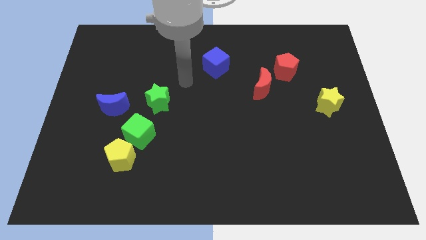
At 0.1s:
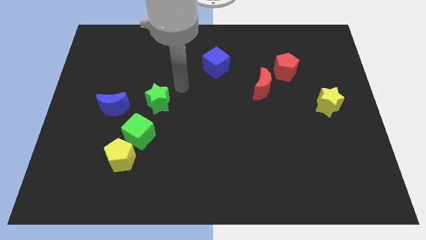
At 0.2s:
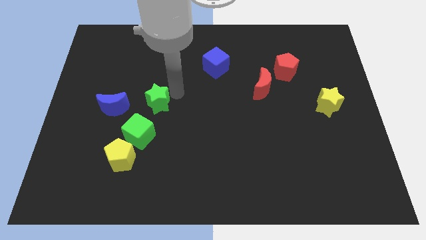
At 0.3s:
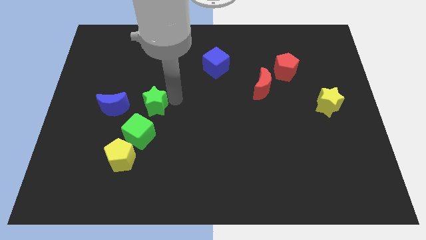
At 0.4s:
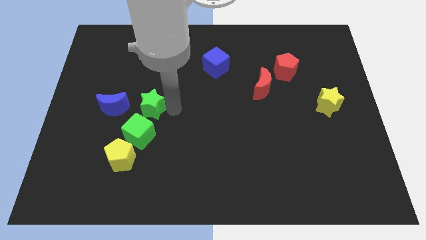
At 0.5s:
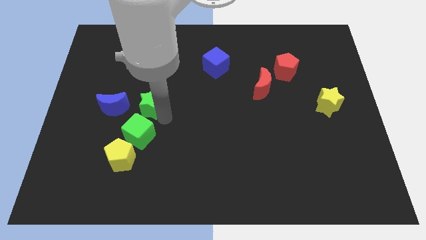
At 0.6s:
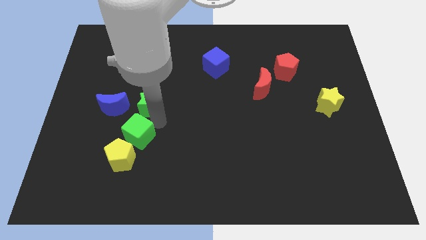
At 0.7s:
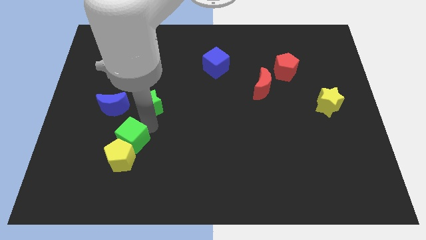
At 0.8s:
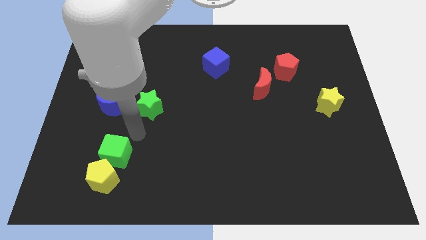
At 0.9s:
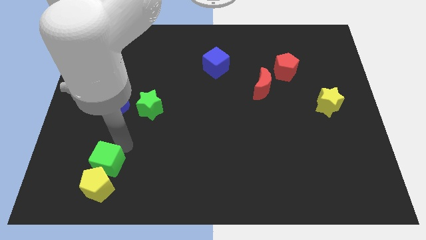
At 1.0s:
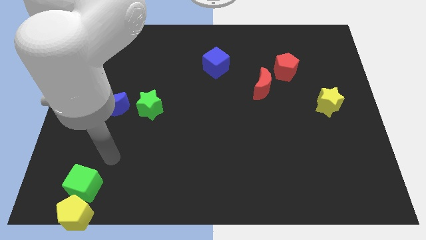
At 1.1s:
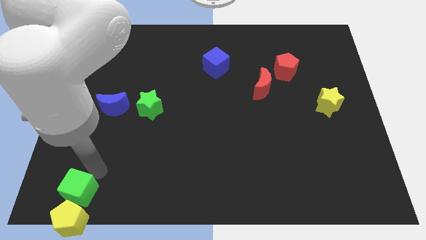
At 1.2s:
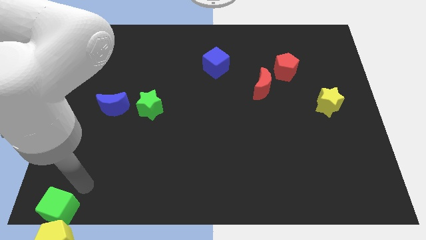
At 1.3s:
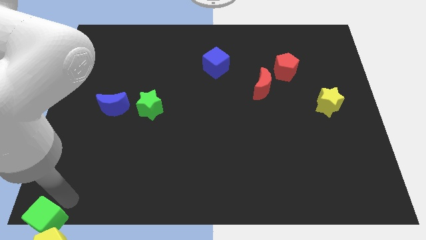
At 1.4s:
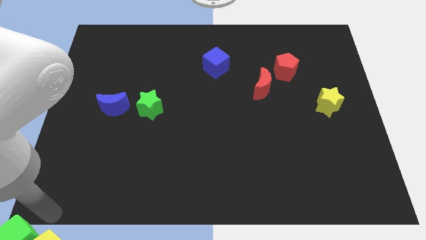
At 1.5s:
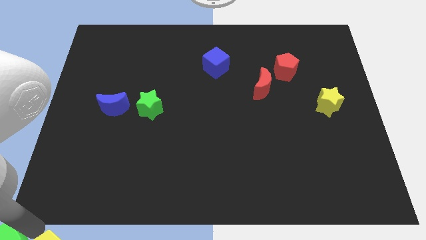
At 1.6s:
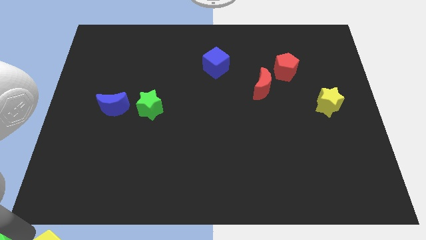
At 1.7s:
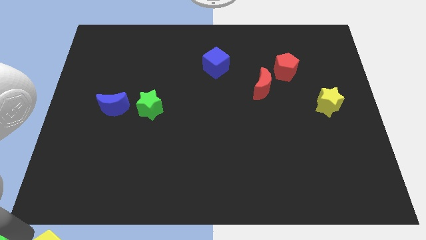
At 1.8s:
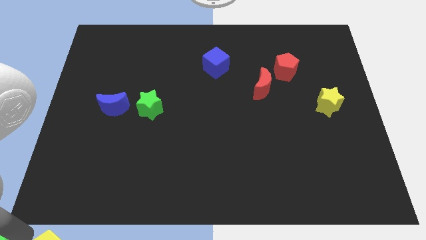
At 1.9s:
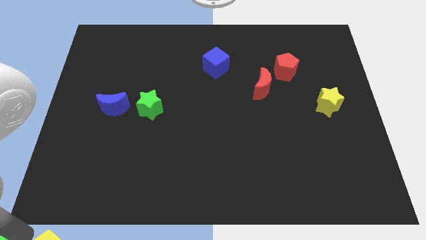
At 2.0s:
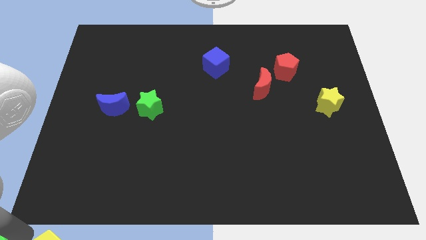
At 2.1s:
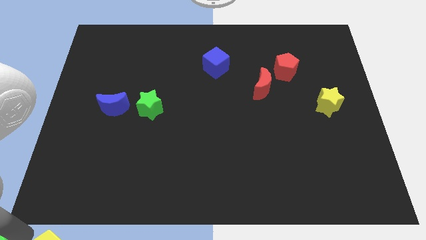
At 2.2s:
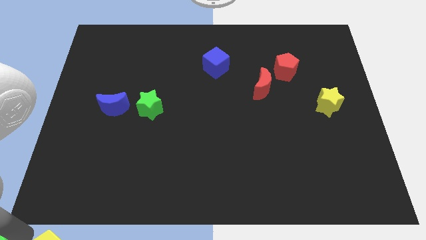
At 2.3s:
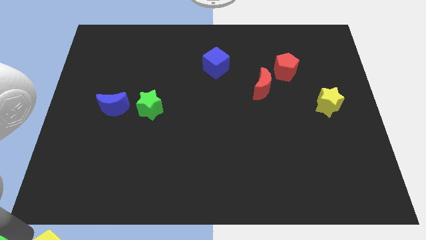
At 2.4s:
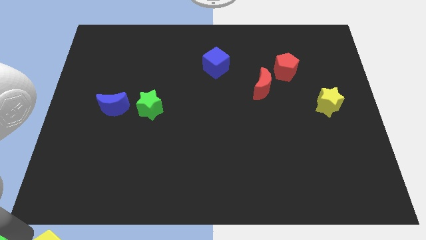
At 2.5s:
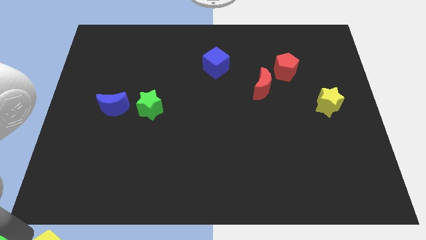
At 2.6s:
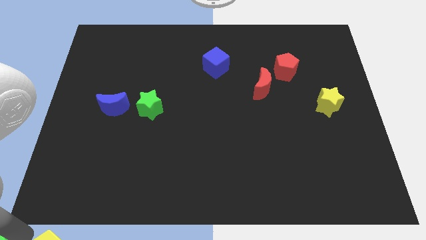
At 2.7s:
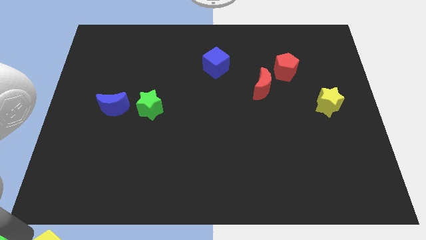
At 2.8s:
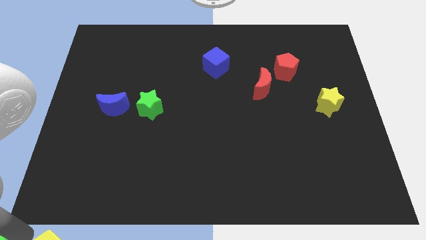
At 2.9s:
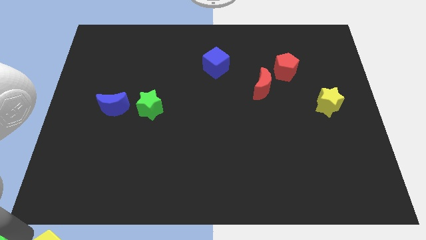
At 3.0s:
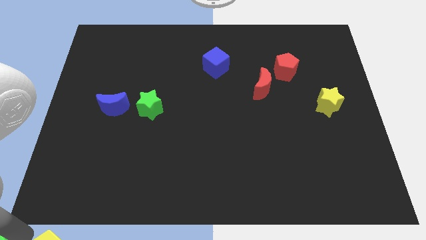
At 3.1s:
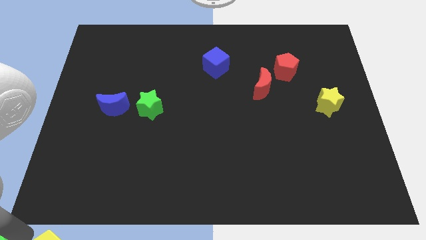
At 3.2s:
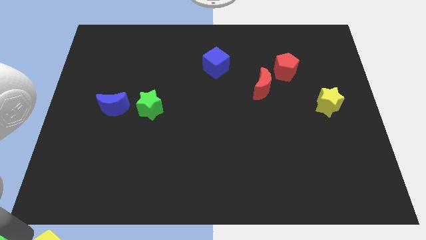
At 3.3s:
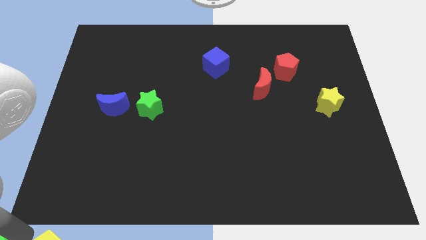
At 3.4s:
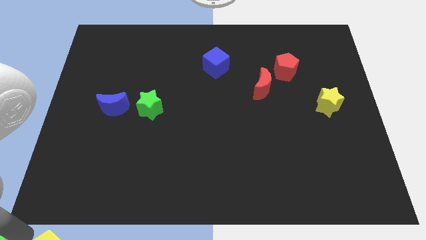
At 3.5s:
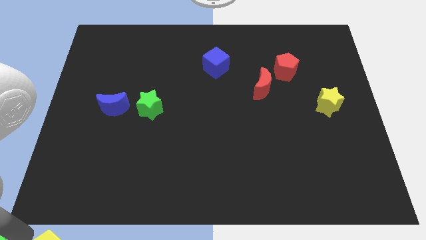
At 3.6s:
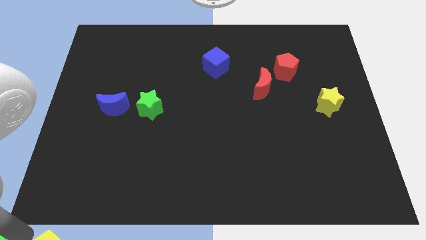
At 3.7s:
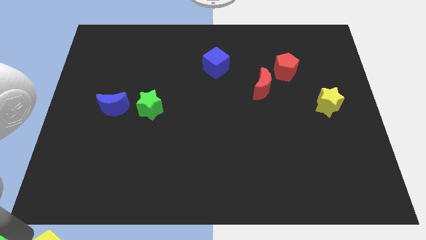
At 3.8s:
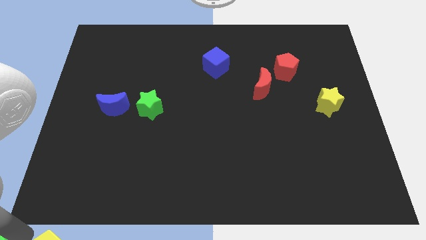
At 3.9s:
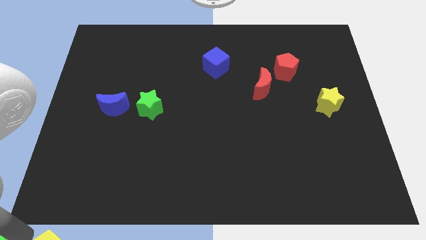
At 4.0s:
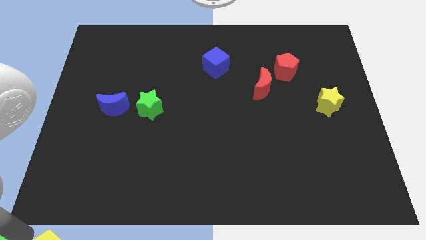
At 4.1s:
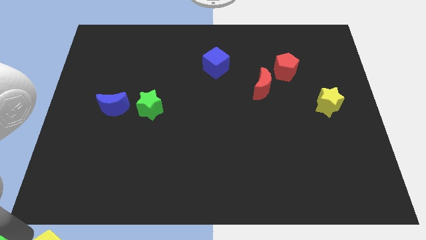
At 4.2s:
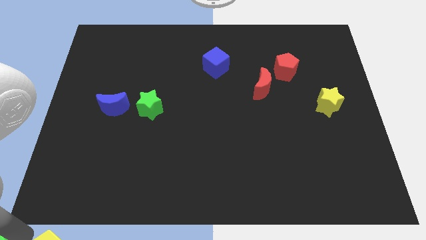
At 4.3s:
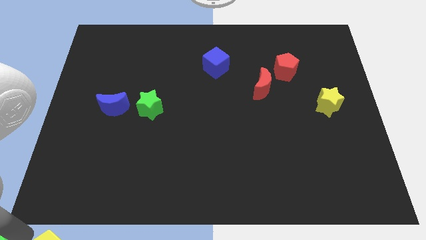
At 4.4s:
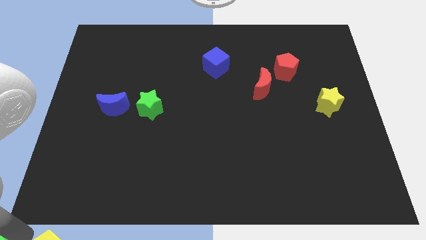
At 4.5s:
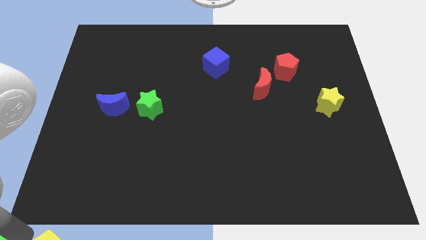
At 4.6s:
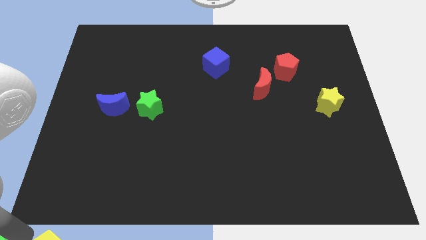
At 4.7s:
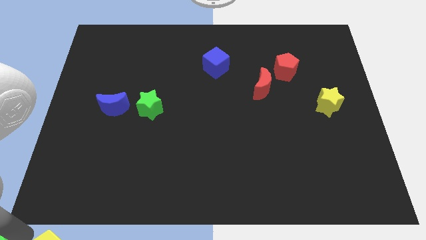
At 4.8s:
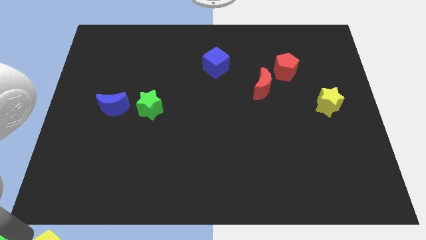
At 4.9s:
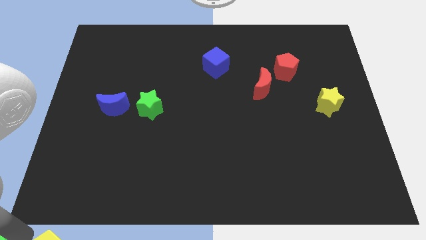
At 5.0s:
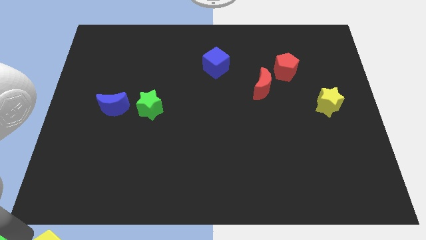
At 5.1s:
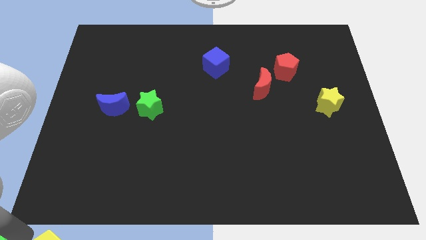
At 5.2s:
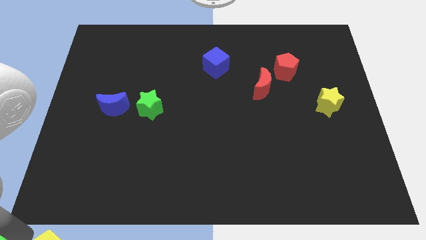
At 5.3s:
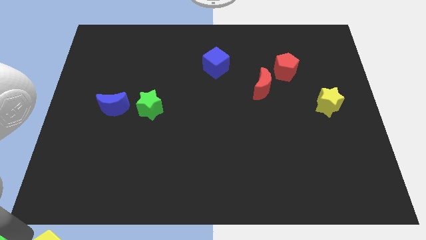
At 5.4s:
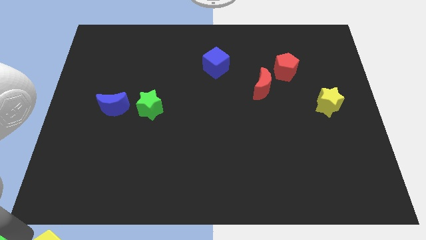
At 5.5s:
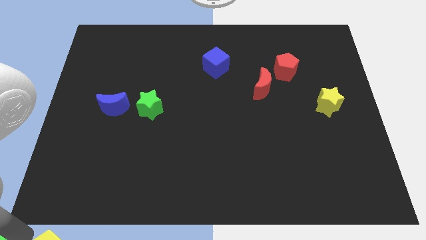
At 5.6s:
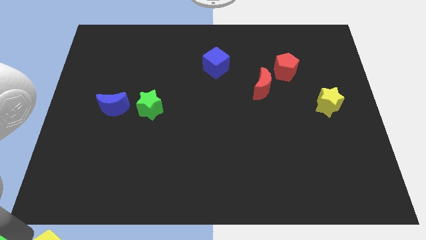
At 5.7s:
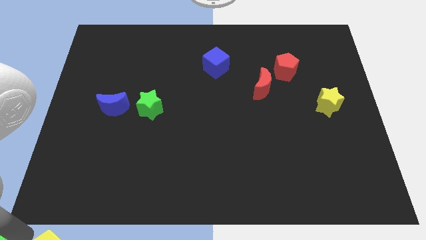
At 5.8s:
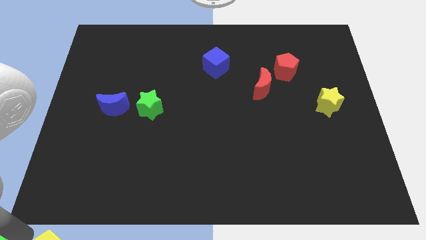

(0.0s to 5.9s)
pull the yellow pentagon apart from the green cube

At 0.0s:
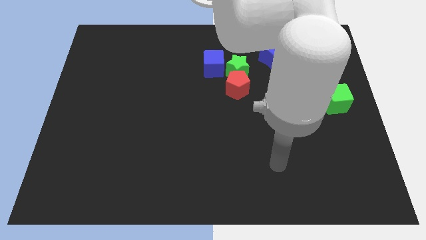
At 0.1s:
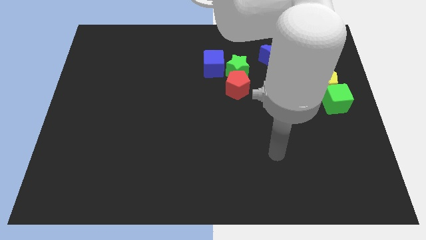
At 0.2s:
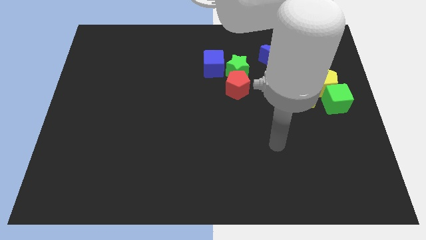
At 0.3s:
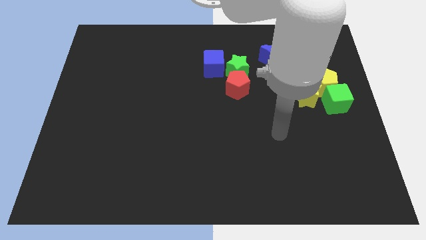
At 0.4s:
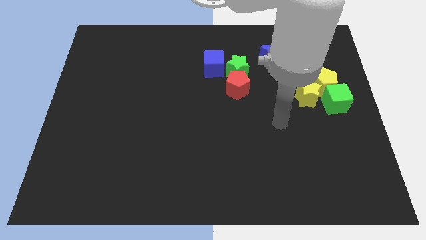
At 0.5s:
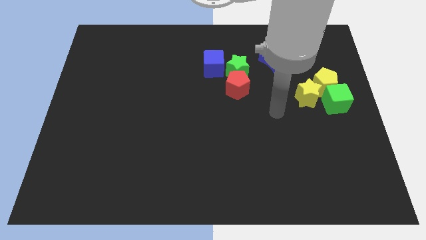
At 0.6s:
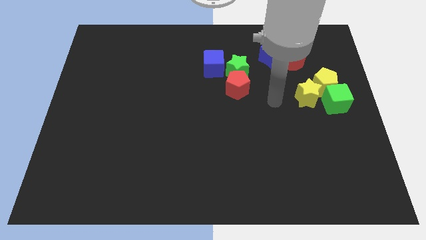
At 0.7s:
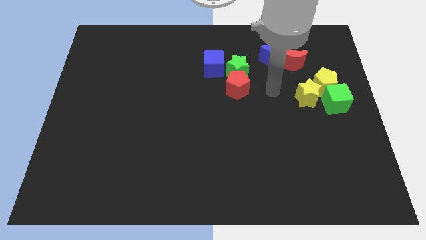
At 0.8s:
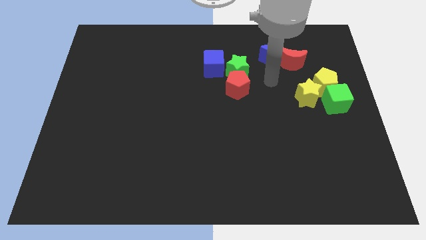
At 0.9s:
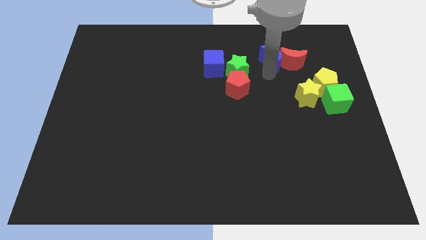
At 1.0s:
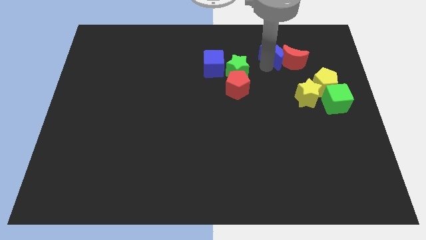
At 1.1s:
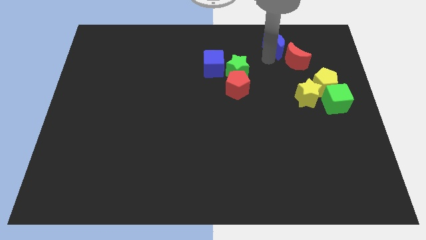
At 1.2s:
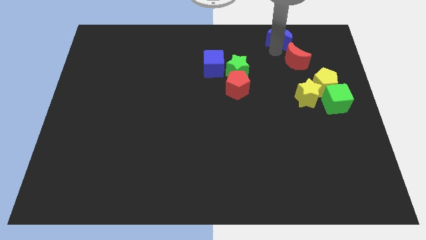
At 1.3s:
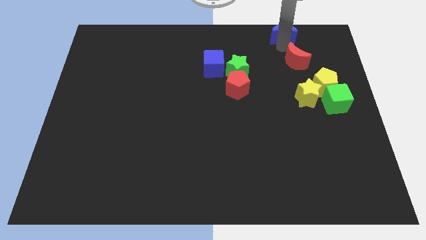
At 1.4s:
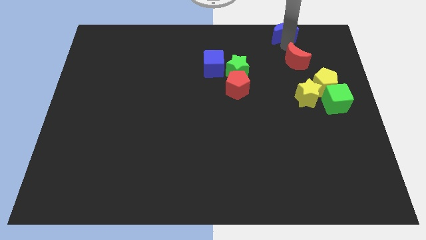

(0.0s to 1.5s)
move the red moon away from the blue moon

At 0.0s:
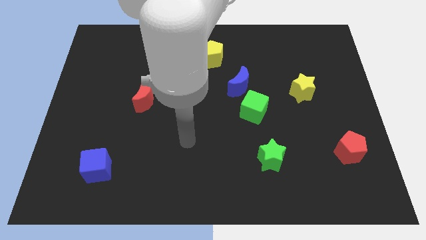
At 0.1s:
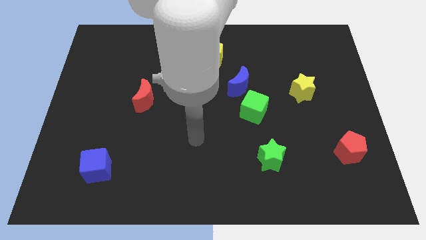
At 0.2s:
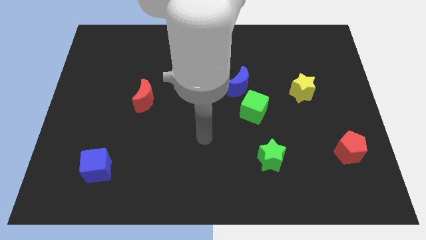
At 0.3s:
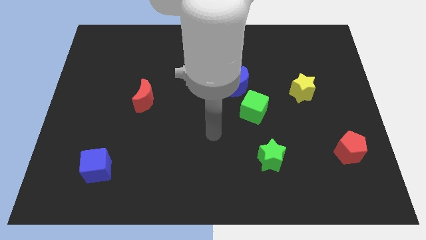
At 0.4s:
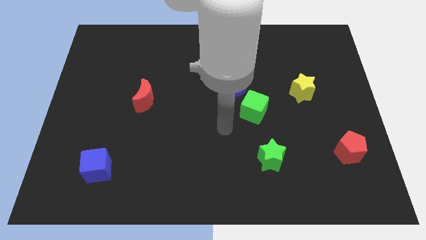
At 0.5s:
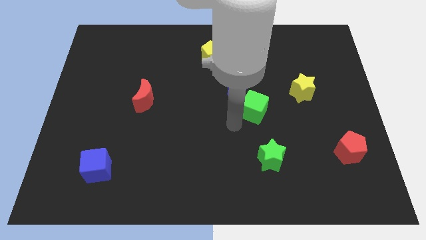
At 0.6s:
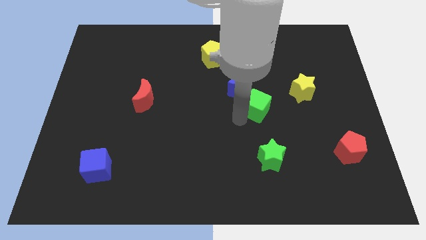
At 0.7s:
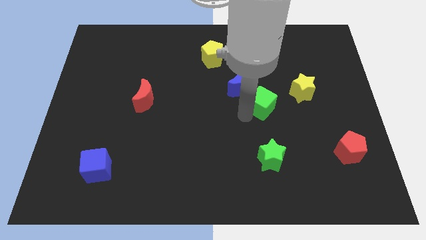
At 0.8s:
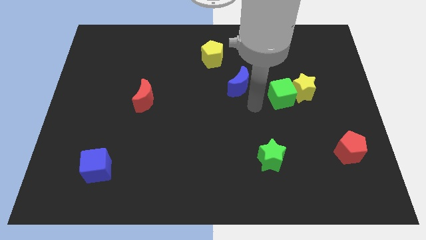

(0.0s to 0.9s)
separate the blue moon from the green cube

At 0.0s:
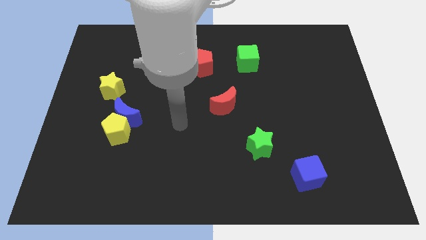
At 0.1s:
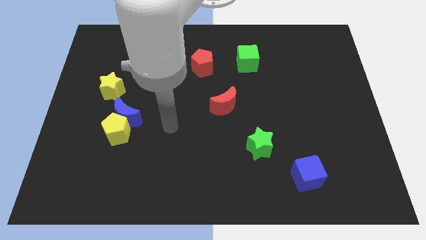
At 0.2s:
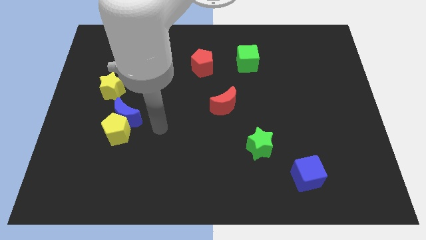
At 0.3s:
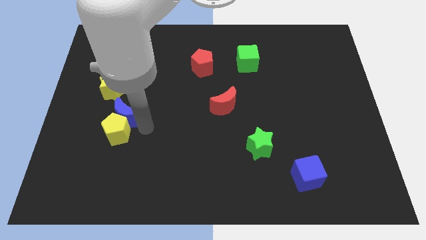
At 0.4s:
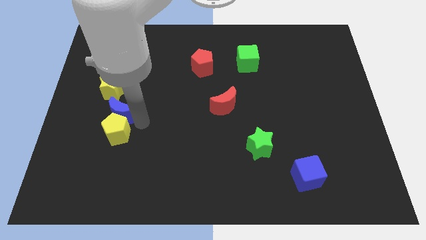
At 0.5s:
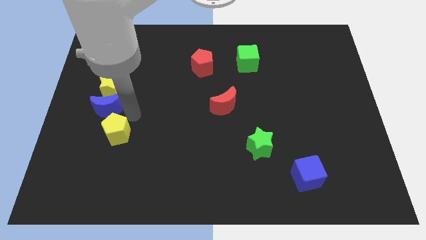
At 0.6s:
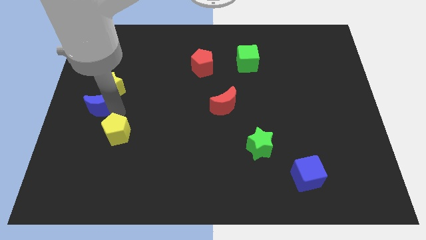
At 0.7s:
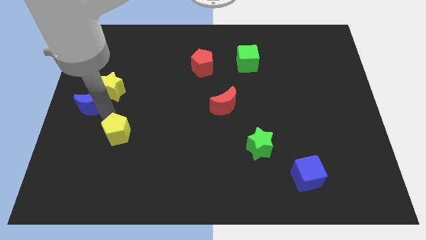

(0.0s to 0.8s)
separate the yellow pentagon from the blue moon

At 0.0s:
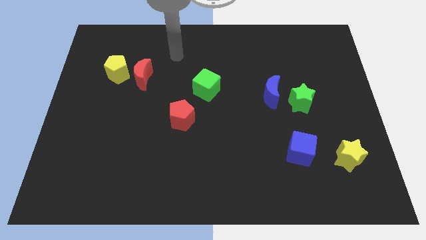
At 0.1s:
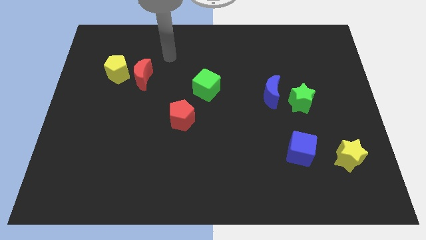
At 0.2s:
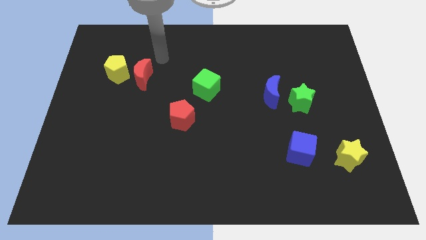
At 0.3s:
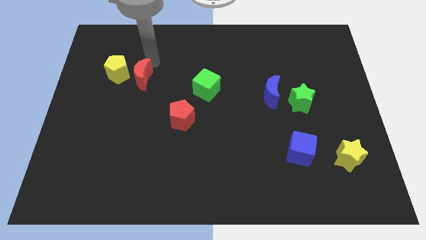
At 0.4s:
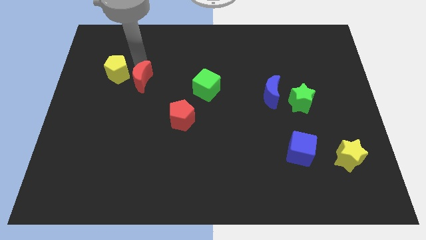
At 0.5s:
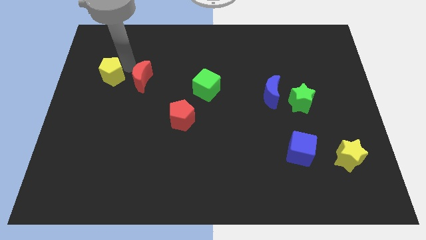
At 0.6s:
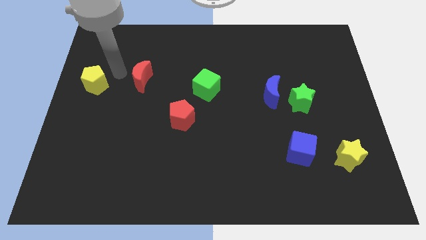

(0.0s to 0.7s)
separate the red moon from the yellow pentagon
